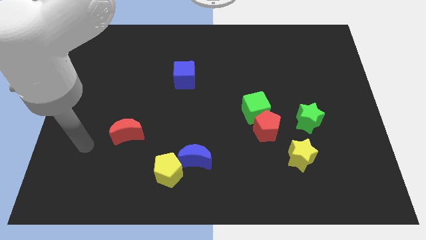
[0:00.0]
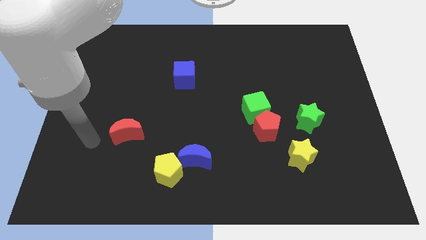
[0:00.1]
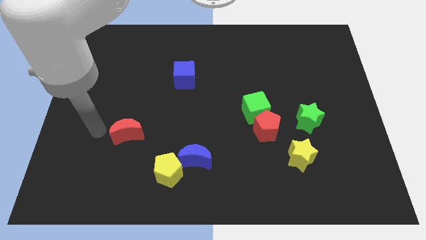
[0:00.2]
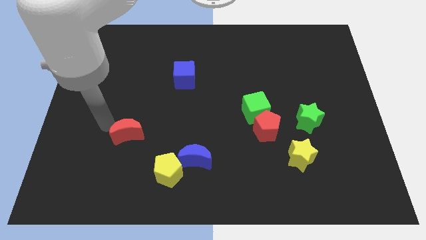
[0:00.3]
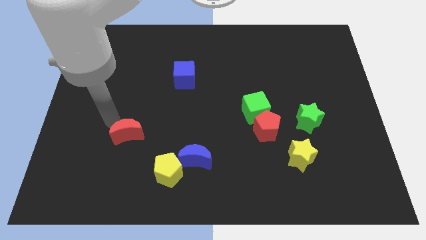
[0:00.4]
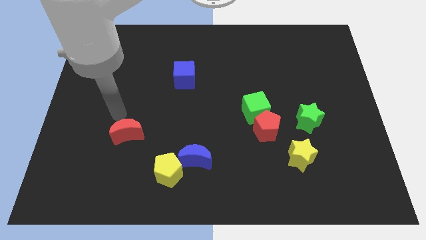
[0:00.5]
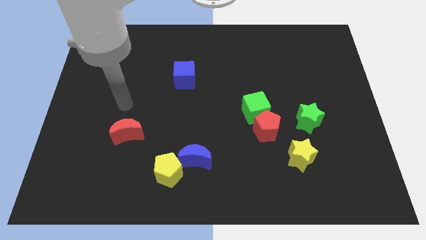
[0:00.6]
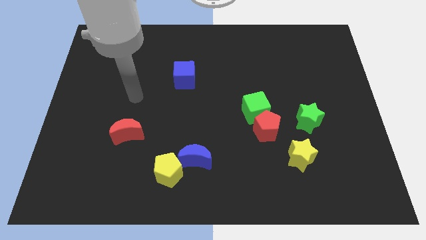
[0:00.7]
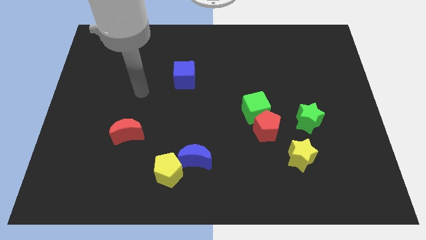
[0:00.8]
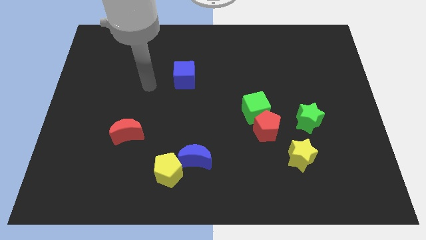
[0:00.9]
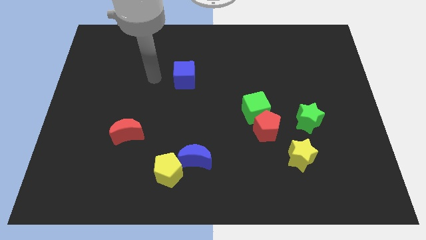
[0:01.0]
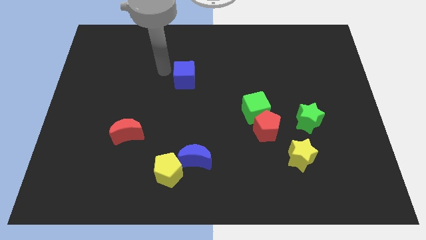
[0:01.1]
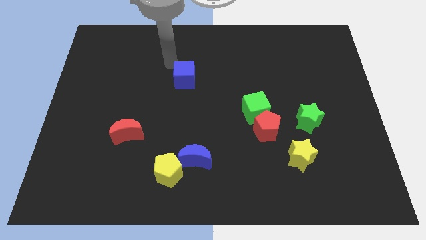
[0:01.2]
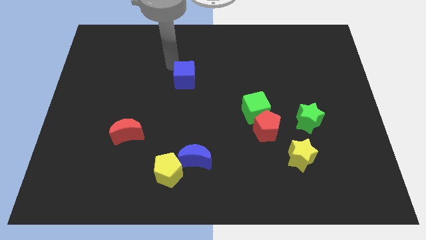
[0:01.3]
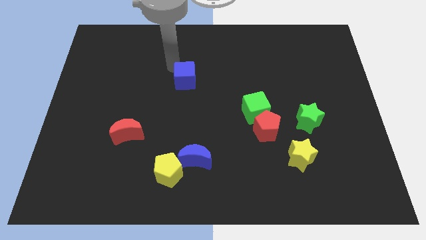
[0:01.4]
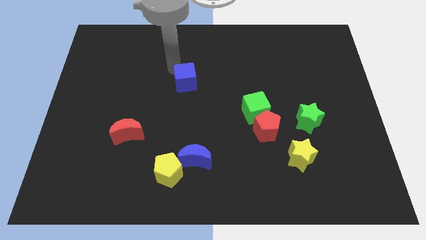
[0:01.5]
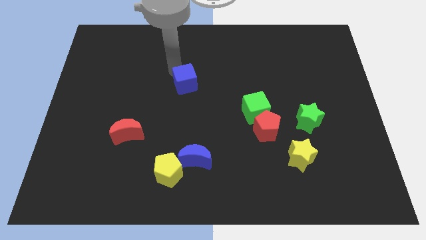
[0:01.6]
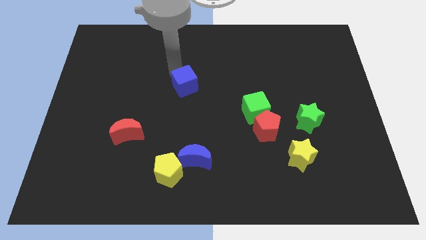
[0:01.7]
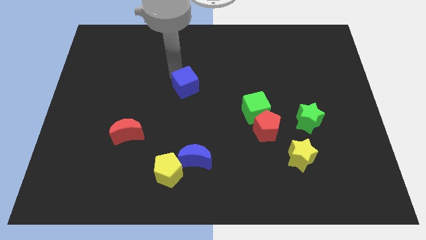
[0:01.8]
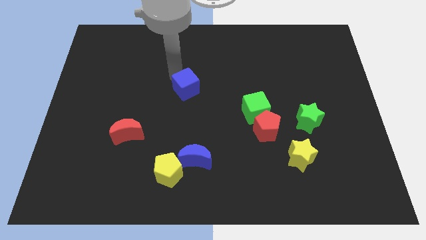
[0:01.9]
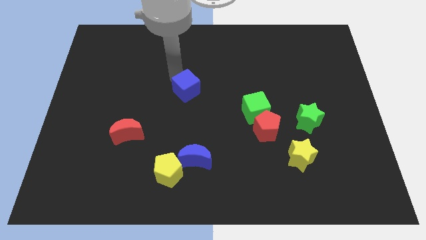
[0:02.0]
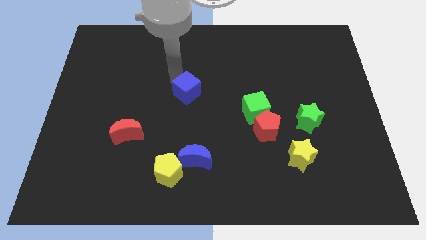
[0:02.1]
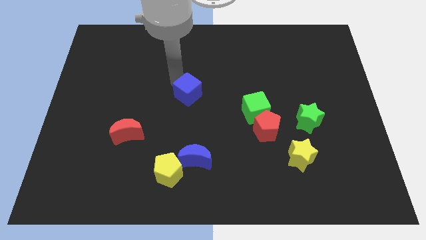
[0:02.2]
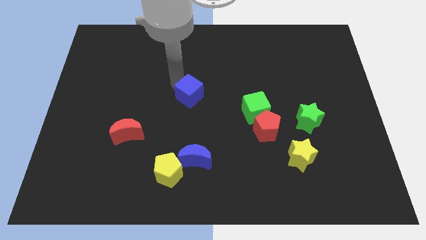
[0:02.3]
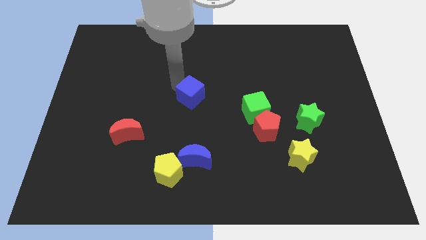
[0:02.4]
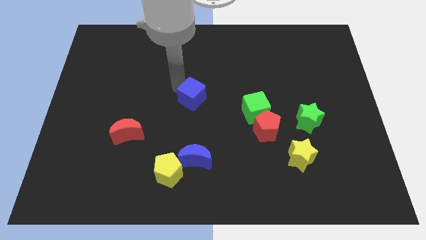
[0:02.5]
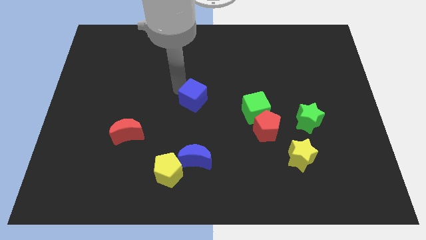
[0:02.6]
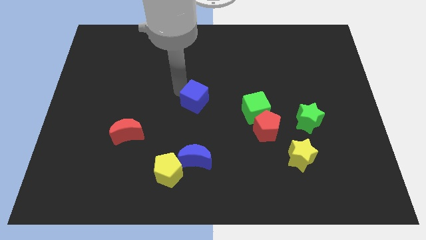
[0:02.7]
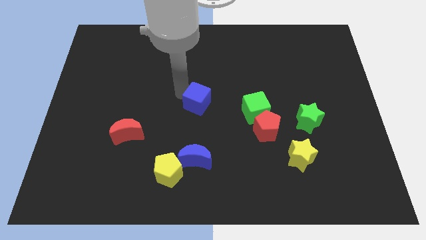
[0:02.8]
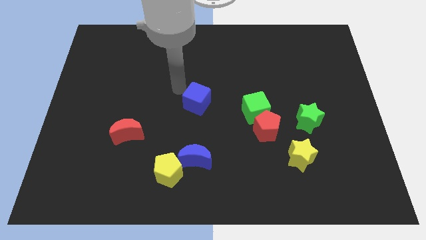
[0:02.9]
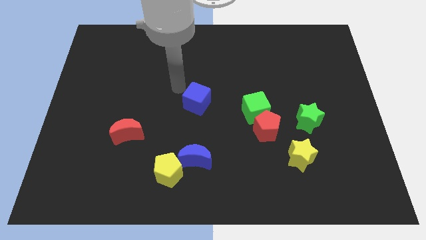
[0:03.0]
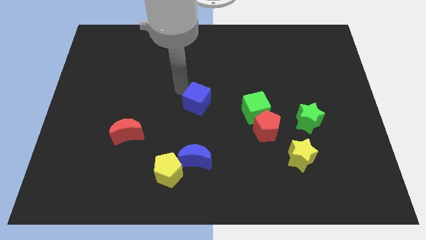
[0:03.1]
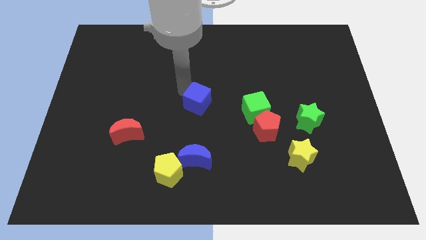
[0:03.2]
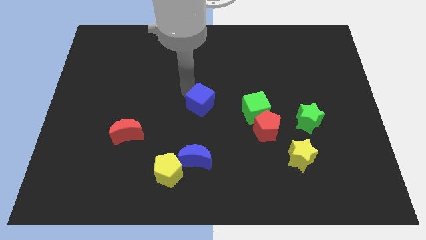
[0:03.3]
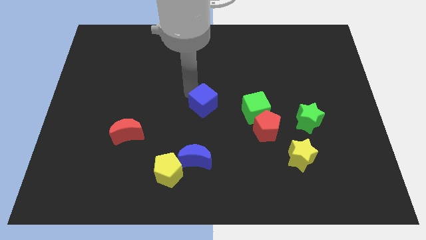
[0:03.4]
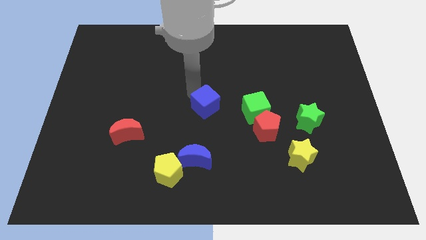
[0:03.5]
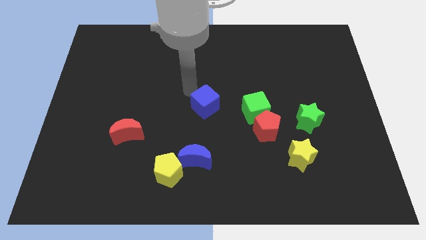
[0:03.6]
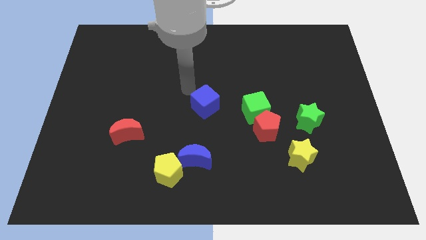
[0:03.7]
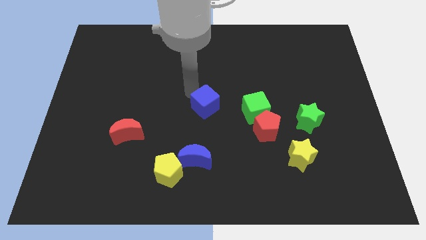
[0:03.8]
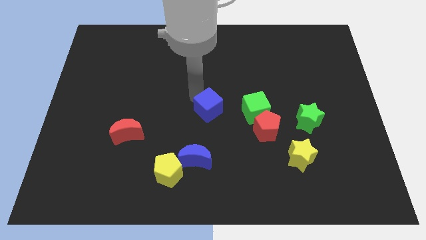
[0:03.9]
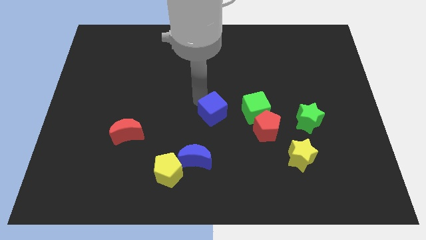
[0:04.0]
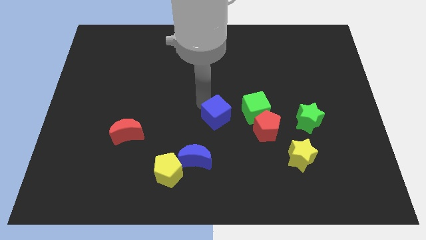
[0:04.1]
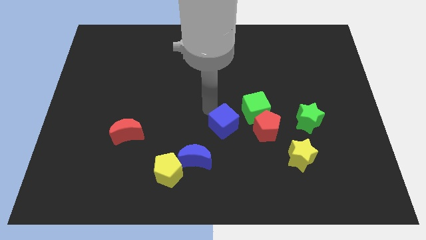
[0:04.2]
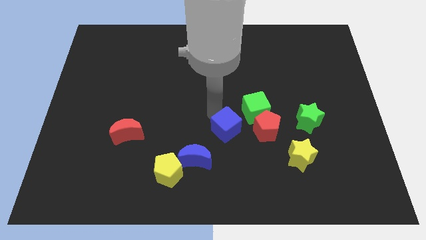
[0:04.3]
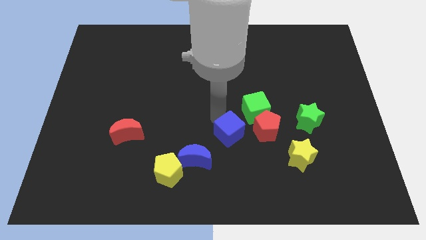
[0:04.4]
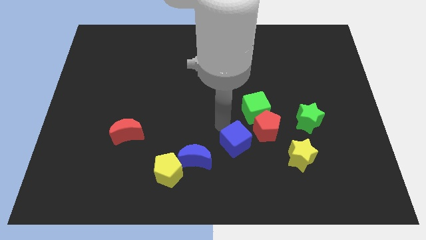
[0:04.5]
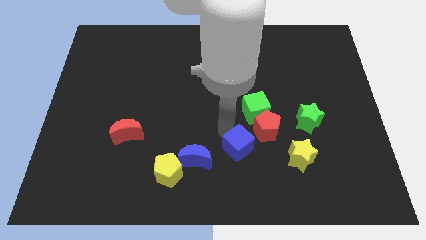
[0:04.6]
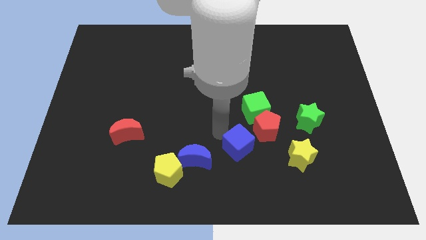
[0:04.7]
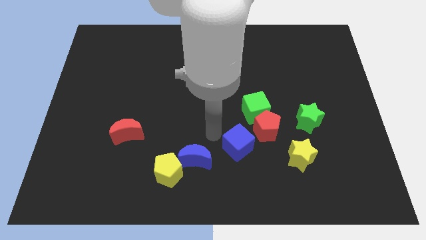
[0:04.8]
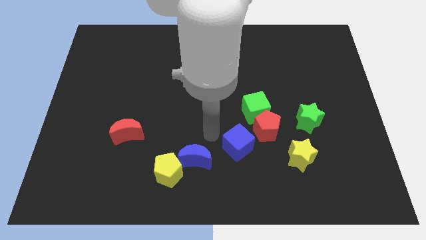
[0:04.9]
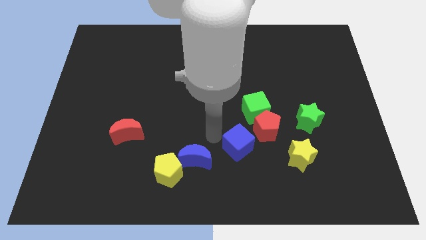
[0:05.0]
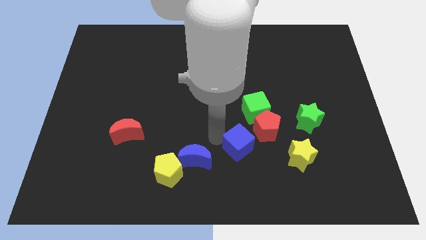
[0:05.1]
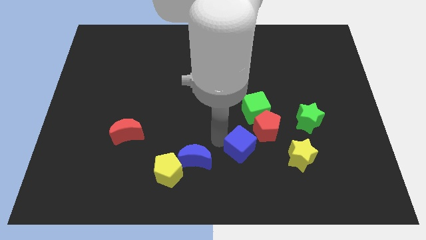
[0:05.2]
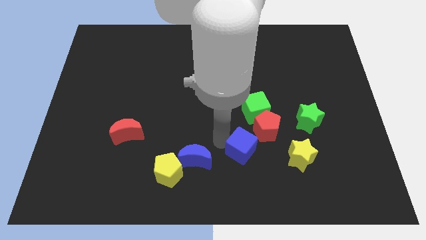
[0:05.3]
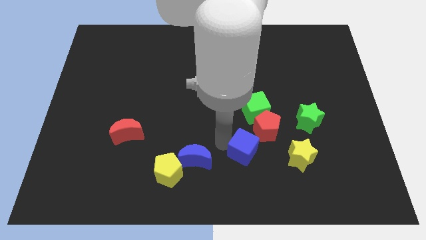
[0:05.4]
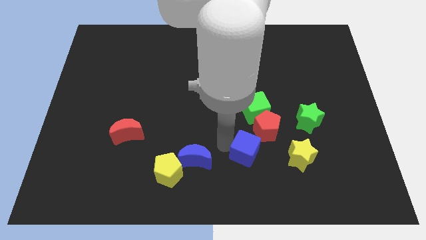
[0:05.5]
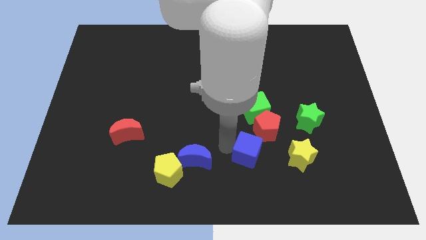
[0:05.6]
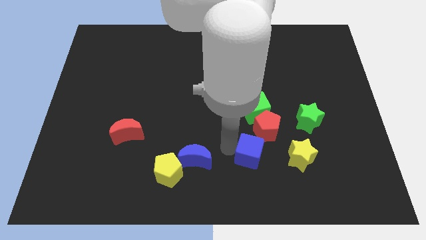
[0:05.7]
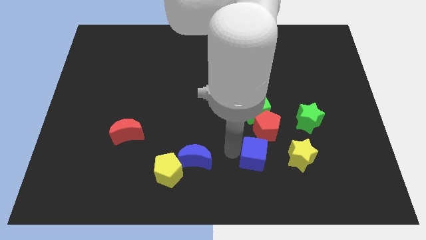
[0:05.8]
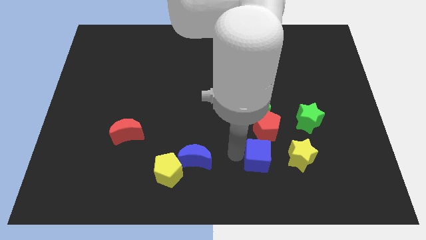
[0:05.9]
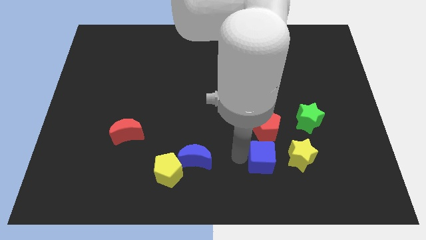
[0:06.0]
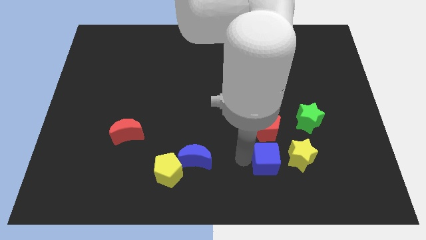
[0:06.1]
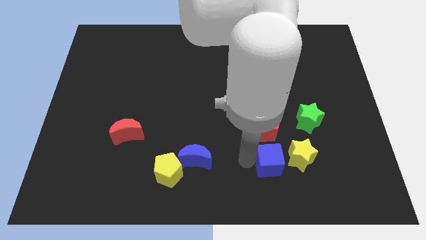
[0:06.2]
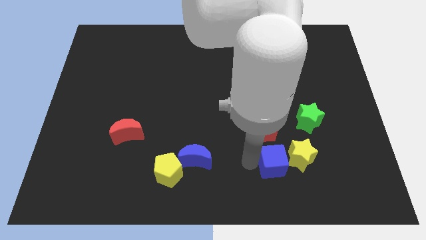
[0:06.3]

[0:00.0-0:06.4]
slide the blue cube towards the yellow star

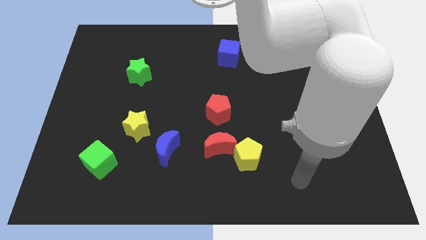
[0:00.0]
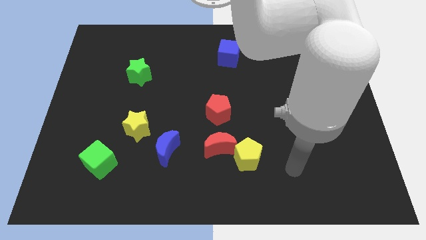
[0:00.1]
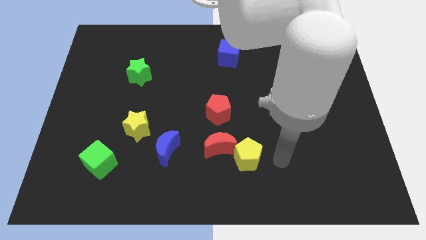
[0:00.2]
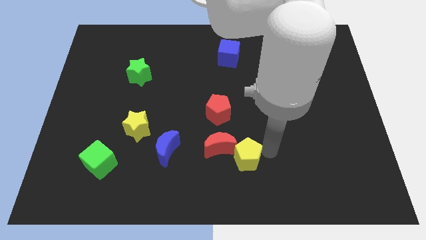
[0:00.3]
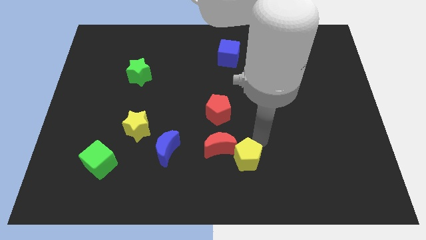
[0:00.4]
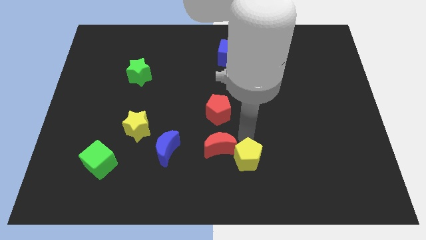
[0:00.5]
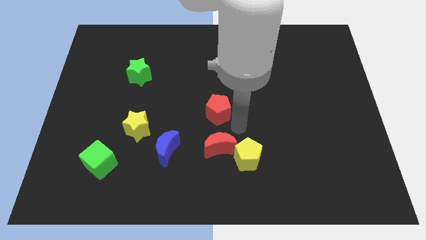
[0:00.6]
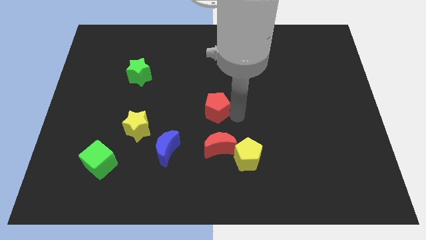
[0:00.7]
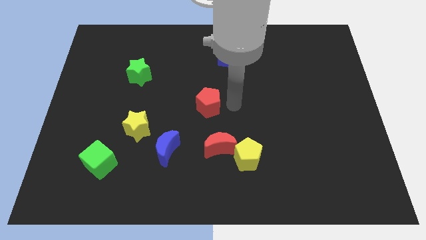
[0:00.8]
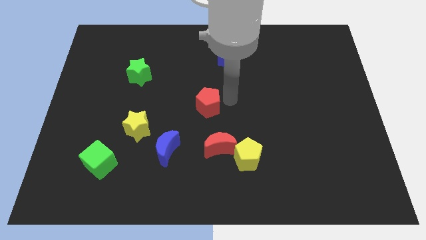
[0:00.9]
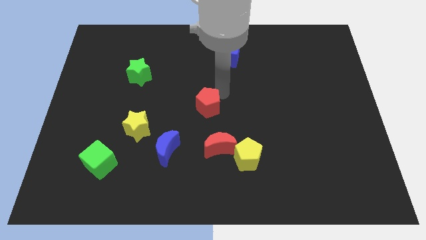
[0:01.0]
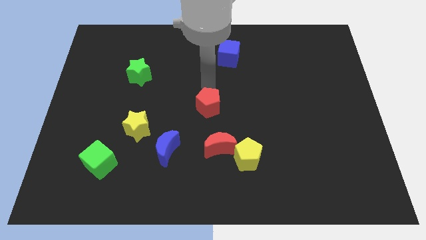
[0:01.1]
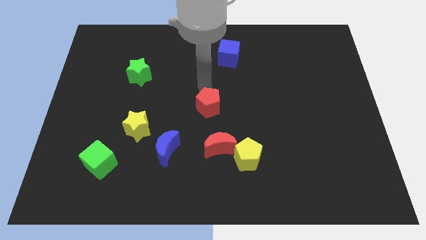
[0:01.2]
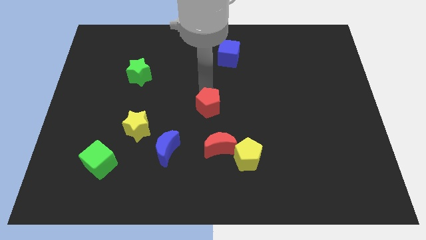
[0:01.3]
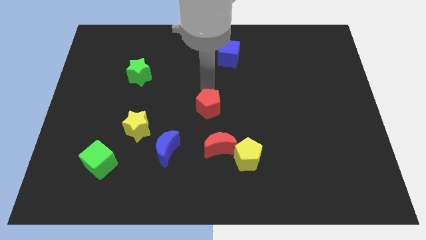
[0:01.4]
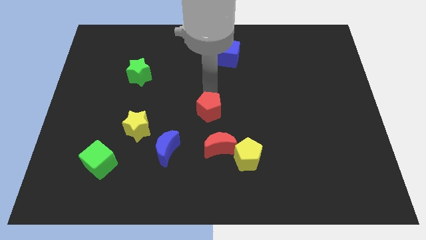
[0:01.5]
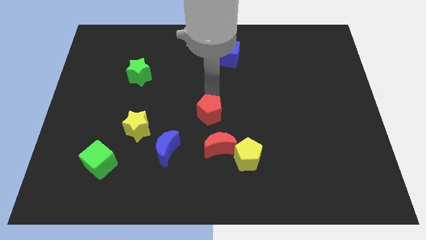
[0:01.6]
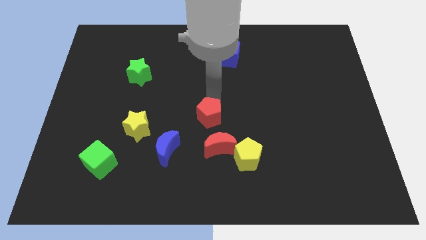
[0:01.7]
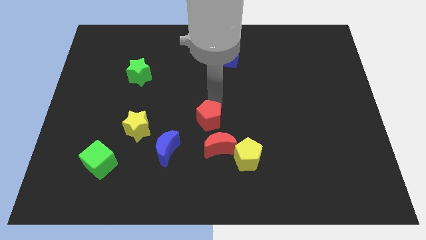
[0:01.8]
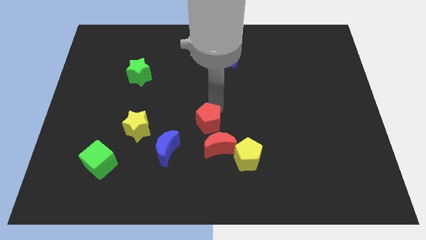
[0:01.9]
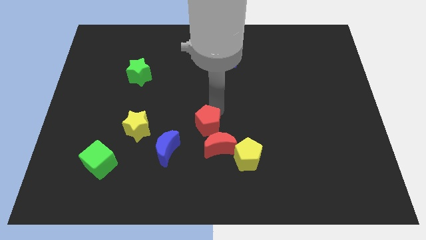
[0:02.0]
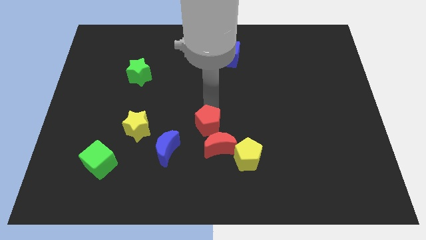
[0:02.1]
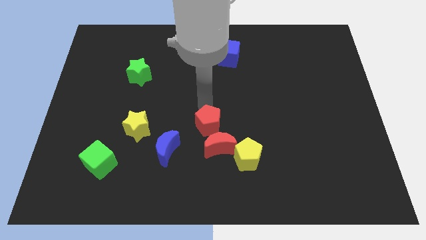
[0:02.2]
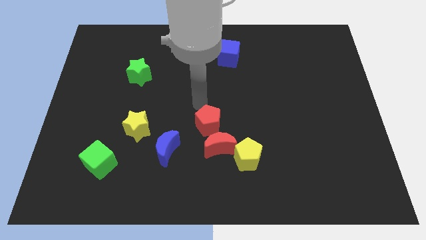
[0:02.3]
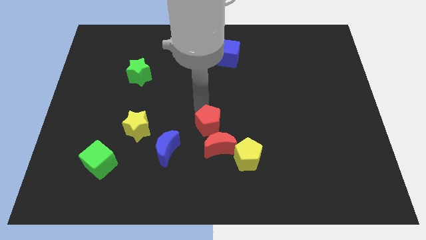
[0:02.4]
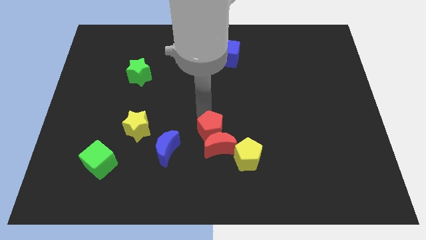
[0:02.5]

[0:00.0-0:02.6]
move the red pentagon close to the red moon
